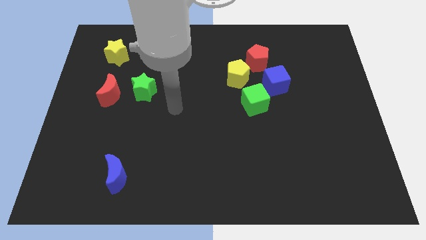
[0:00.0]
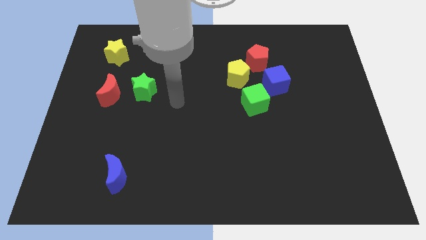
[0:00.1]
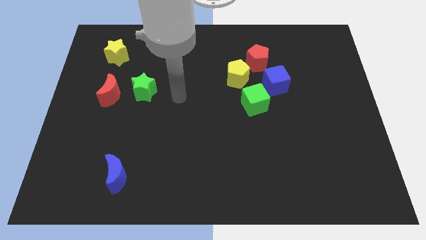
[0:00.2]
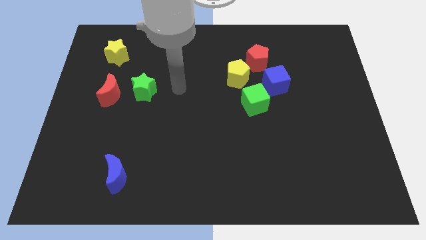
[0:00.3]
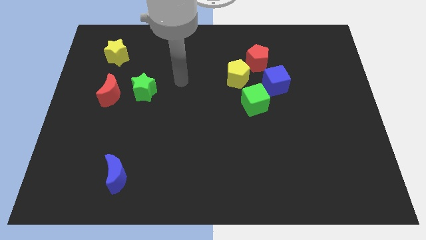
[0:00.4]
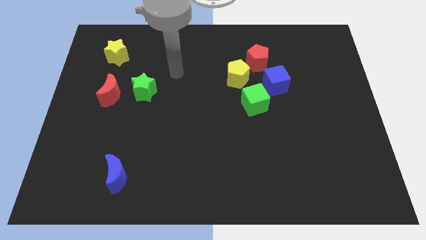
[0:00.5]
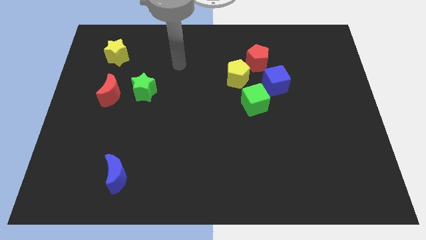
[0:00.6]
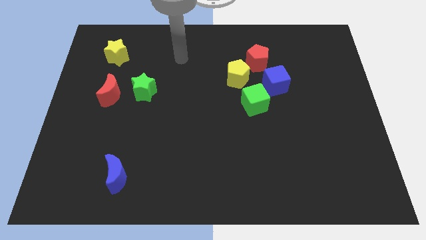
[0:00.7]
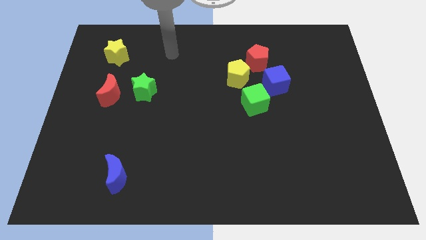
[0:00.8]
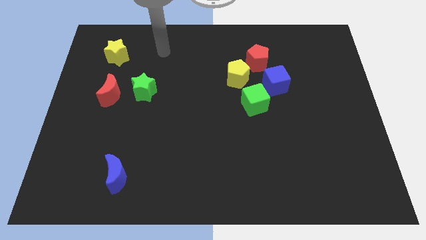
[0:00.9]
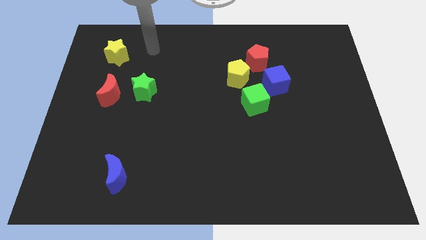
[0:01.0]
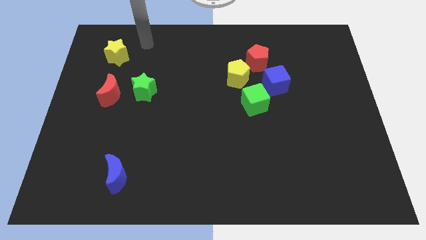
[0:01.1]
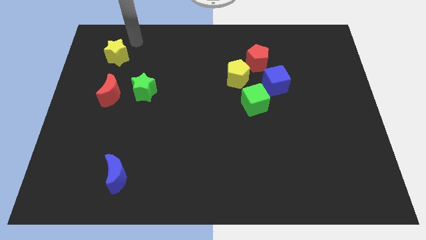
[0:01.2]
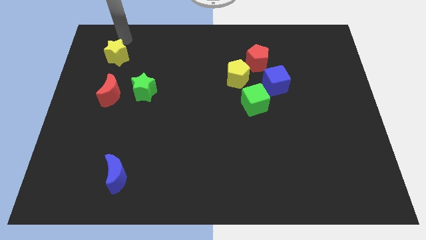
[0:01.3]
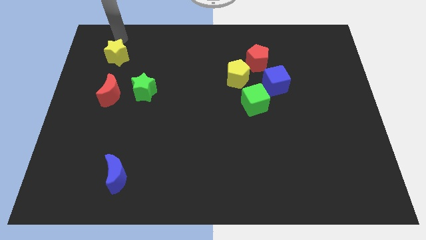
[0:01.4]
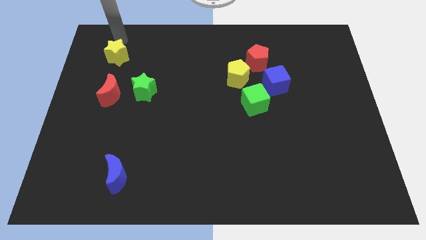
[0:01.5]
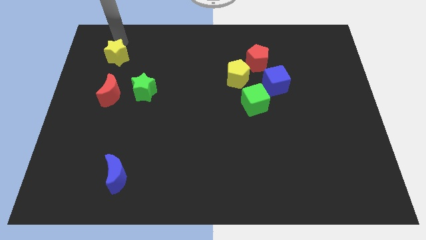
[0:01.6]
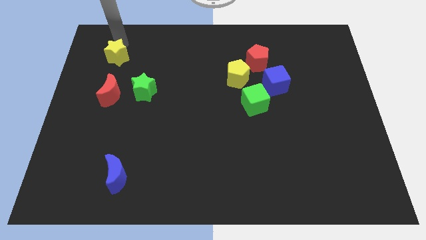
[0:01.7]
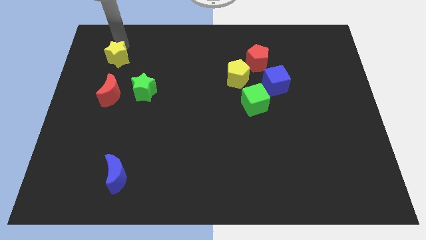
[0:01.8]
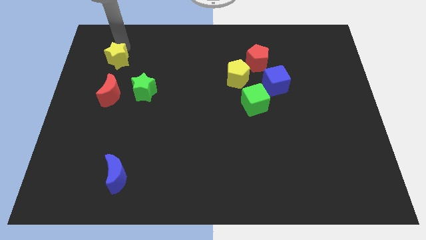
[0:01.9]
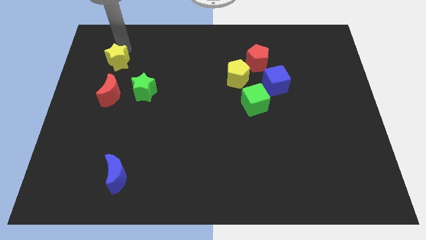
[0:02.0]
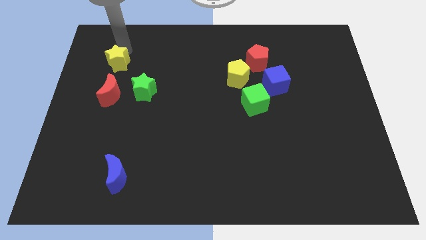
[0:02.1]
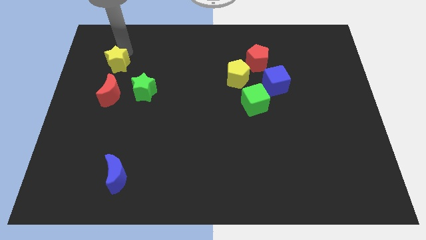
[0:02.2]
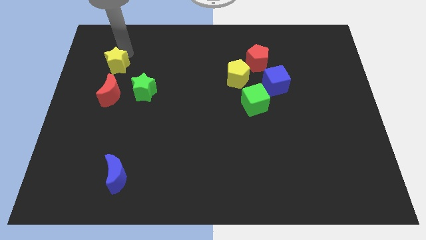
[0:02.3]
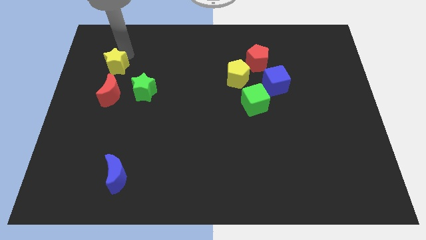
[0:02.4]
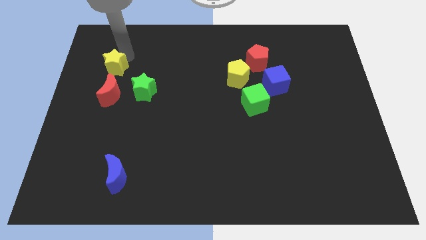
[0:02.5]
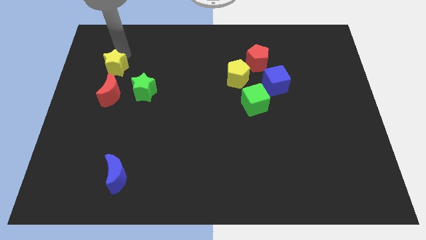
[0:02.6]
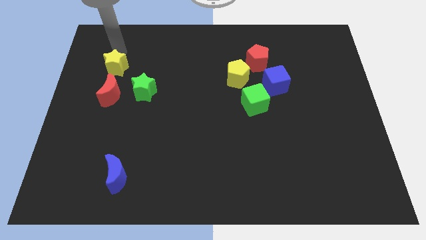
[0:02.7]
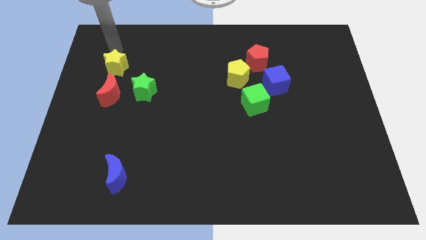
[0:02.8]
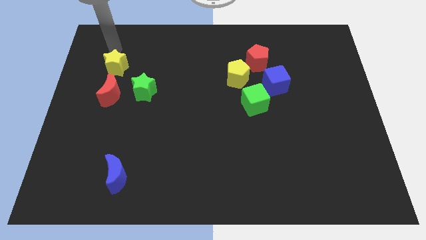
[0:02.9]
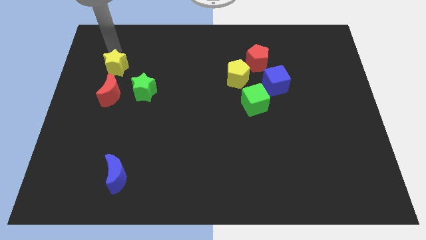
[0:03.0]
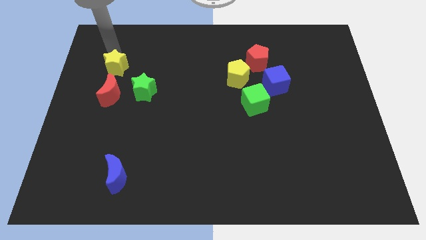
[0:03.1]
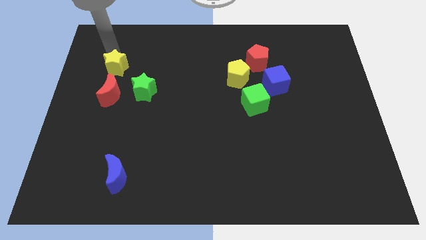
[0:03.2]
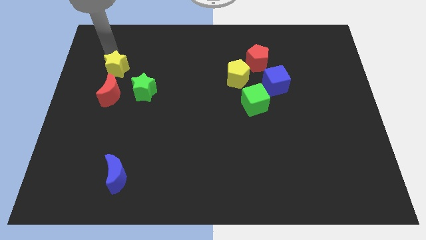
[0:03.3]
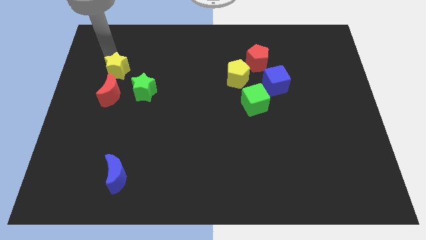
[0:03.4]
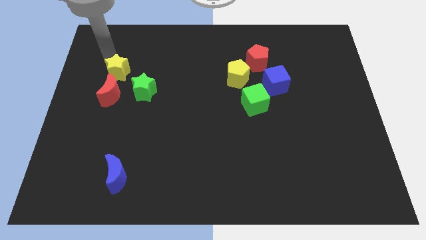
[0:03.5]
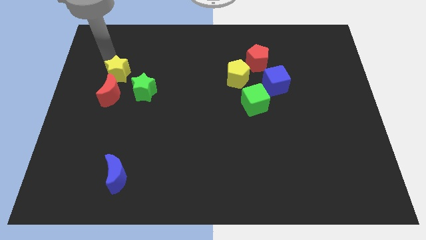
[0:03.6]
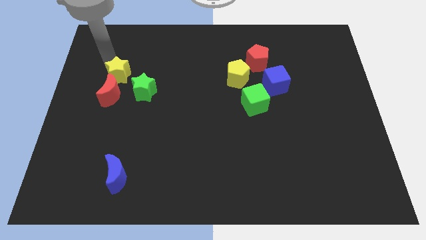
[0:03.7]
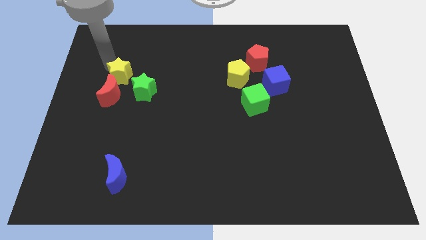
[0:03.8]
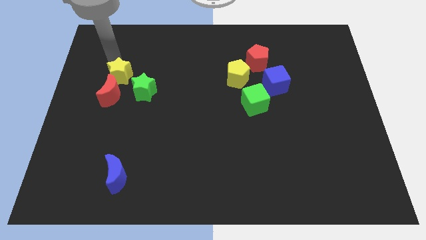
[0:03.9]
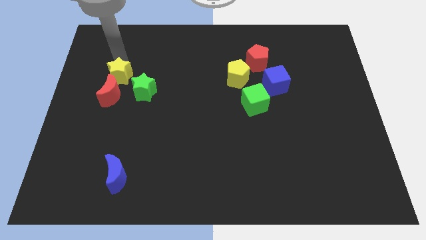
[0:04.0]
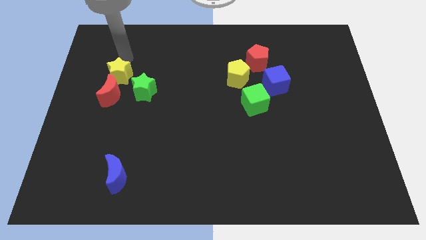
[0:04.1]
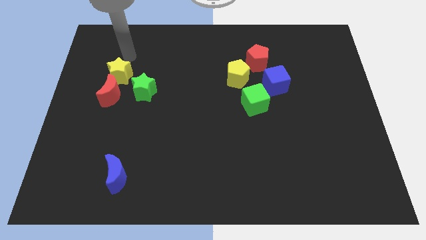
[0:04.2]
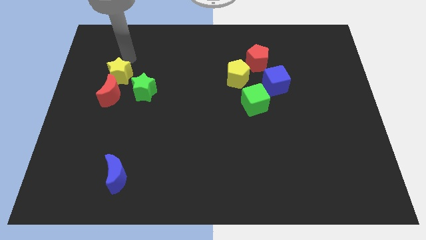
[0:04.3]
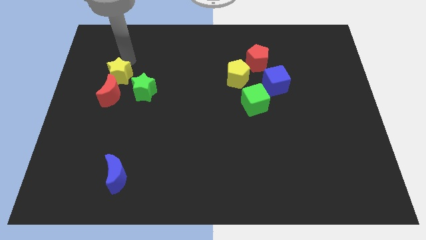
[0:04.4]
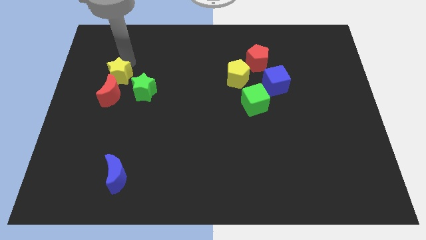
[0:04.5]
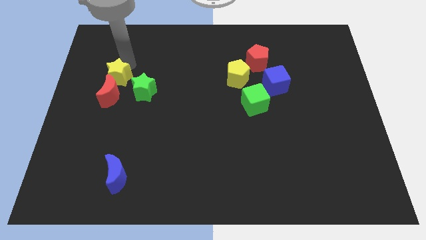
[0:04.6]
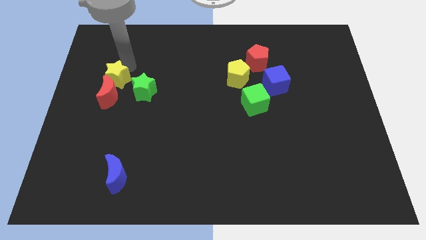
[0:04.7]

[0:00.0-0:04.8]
push the yellow star close to the red moon

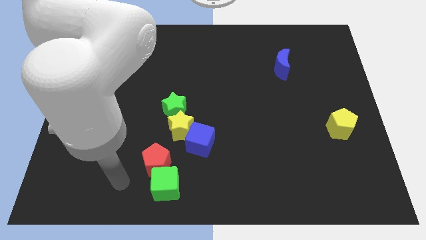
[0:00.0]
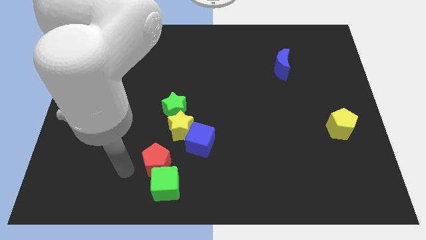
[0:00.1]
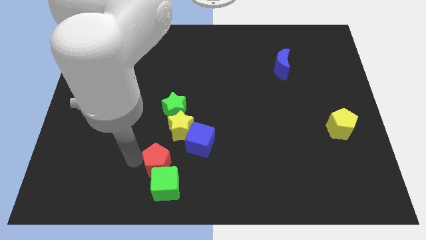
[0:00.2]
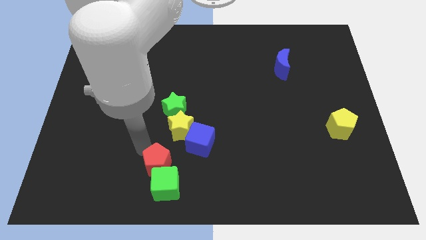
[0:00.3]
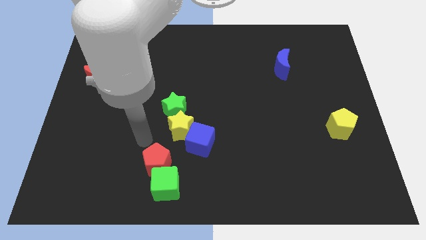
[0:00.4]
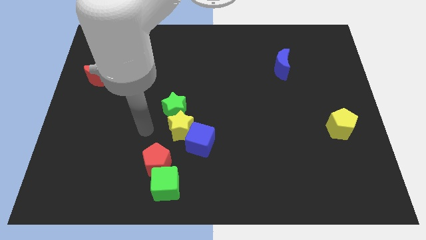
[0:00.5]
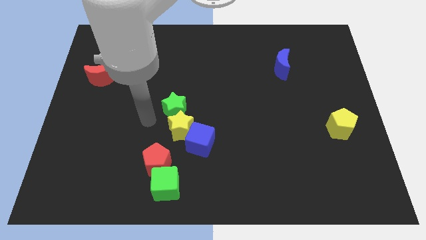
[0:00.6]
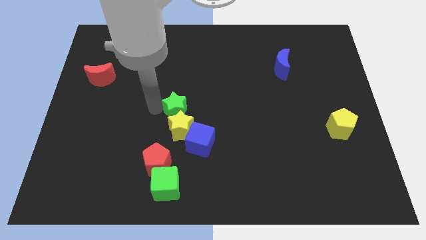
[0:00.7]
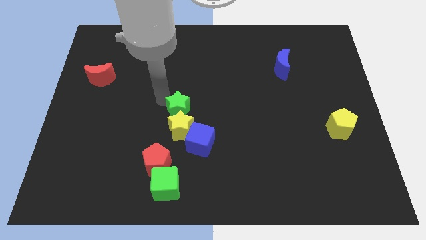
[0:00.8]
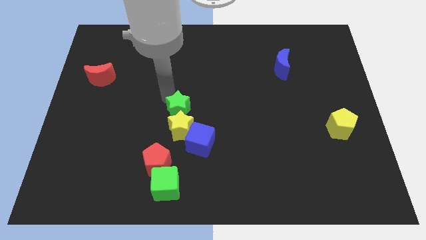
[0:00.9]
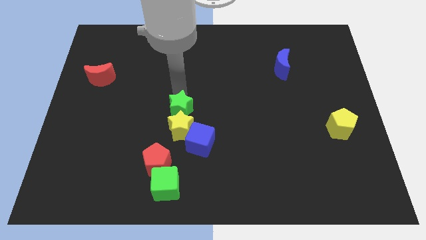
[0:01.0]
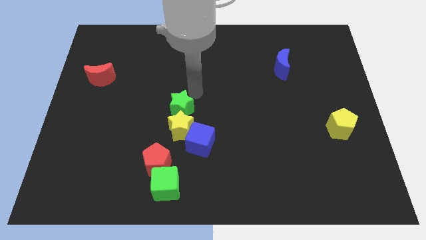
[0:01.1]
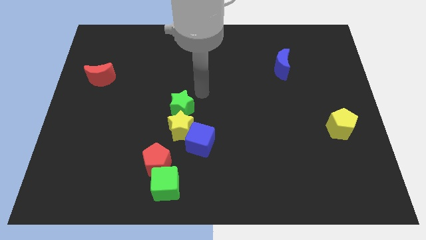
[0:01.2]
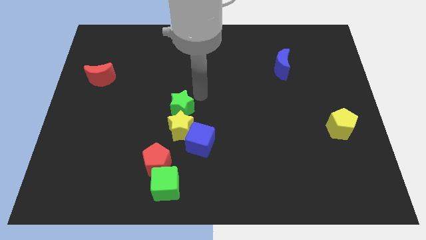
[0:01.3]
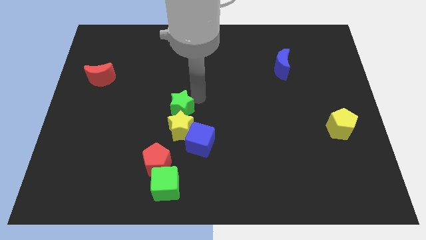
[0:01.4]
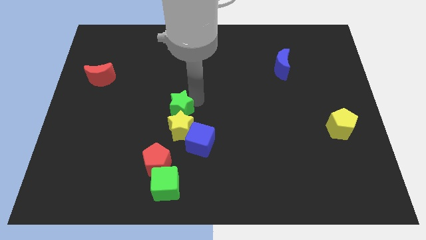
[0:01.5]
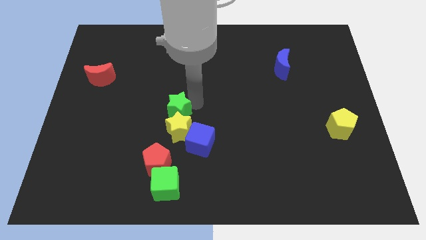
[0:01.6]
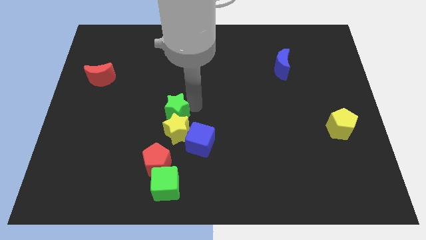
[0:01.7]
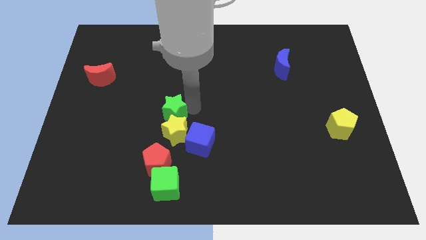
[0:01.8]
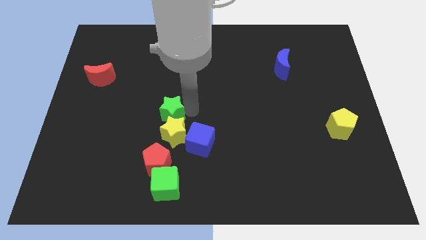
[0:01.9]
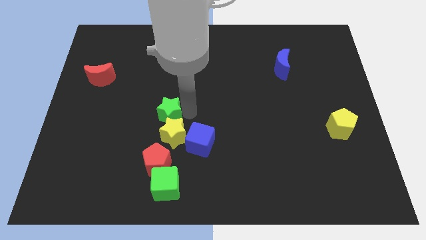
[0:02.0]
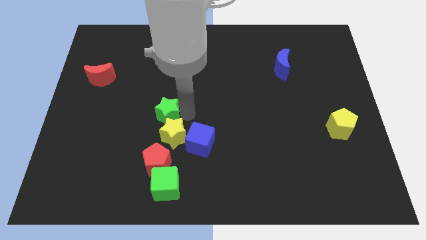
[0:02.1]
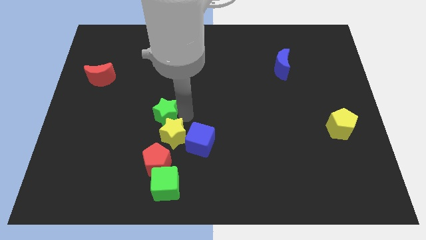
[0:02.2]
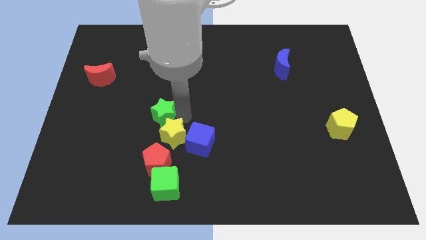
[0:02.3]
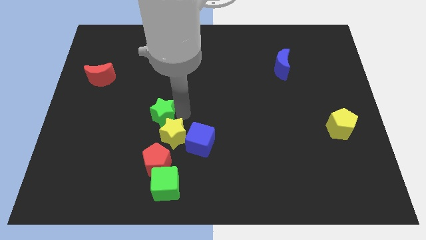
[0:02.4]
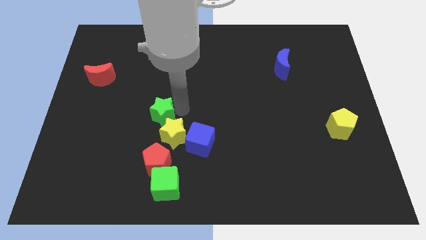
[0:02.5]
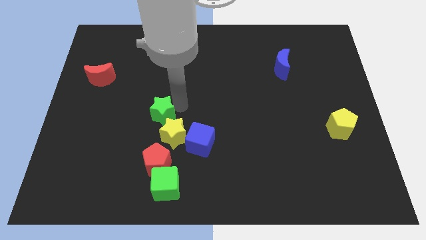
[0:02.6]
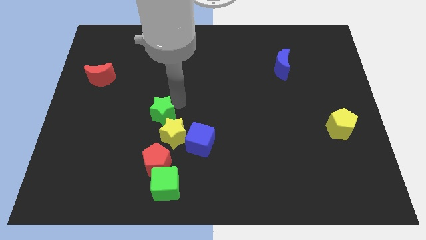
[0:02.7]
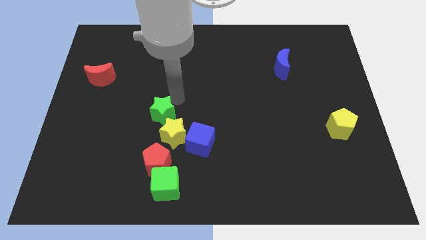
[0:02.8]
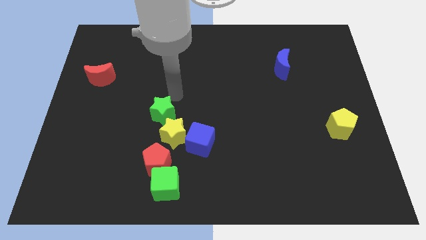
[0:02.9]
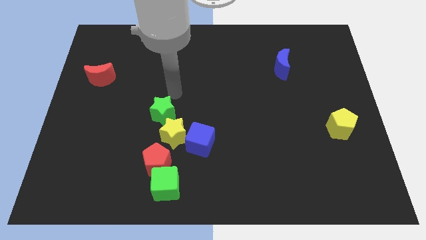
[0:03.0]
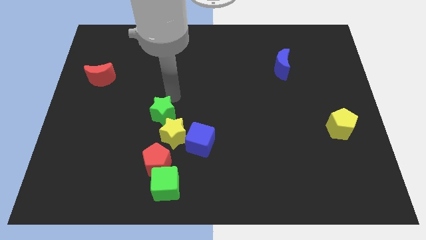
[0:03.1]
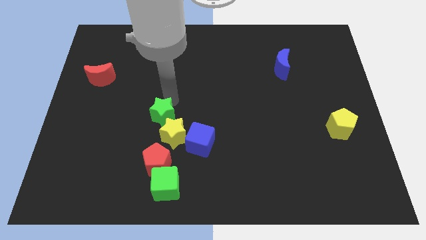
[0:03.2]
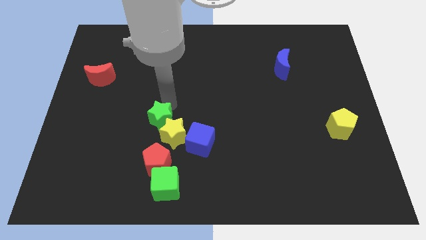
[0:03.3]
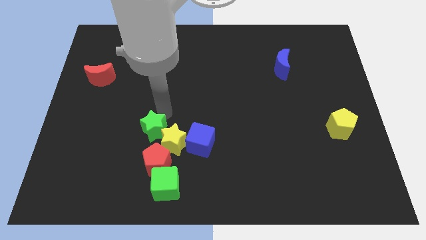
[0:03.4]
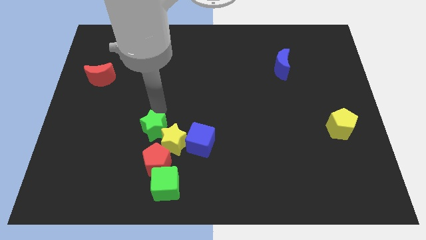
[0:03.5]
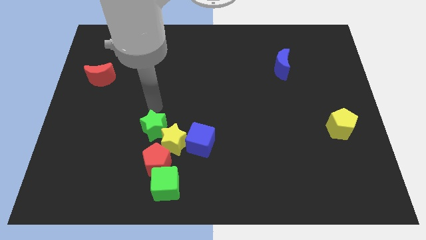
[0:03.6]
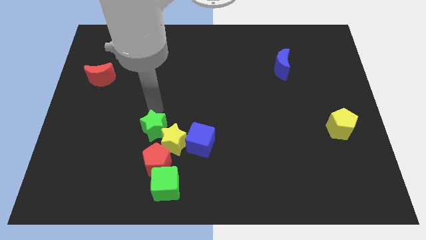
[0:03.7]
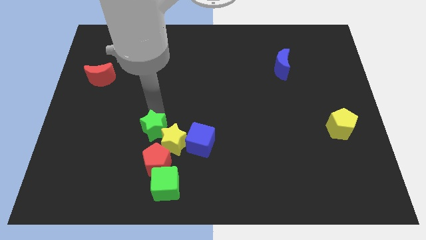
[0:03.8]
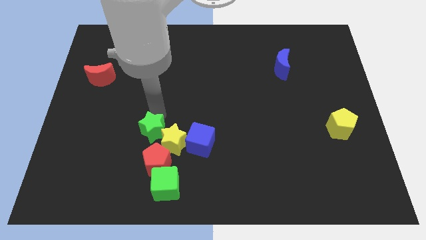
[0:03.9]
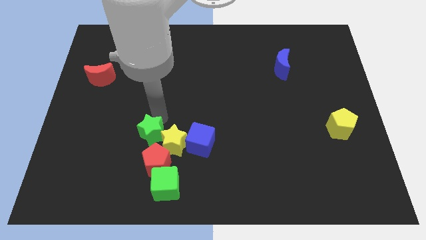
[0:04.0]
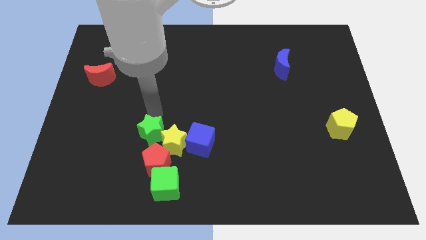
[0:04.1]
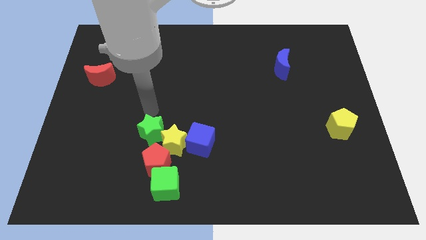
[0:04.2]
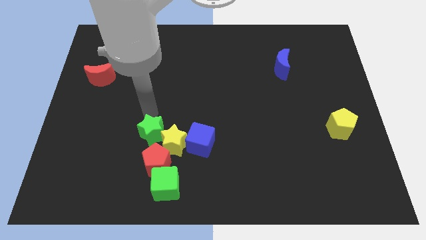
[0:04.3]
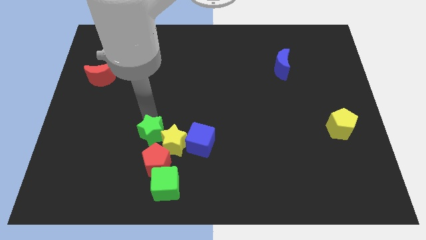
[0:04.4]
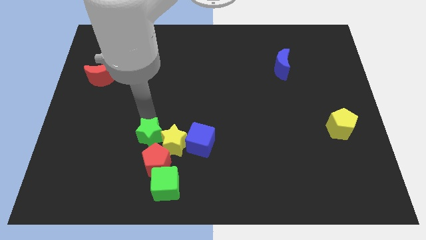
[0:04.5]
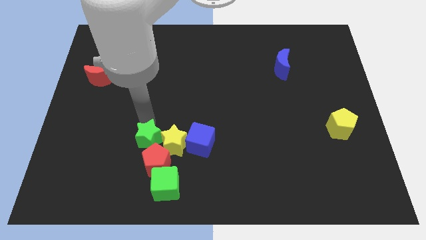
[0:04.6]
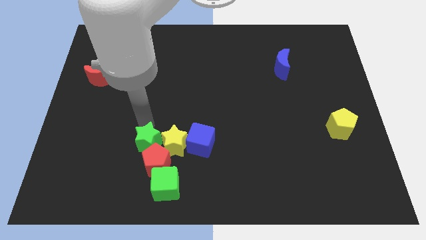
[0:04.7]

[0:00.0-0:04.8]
slide the green star to the red pentagon
